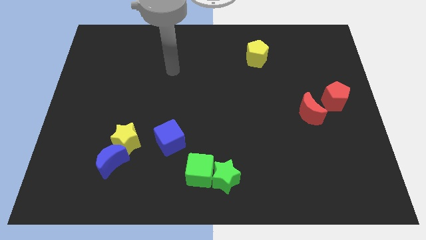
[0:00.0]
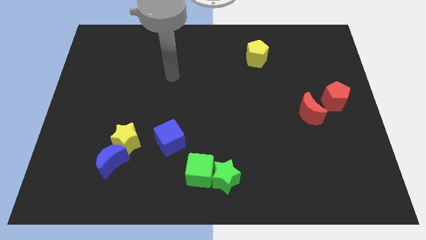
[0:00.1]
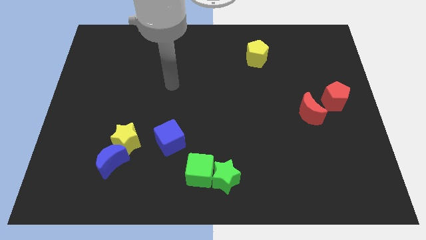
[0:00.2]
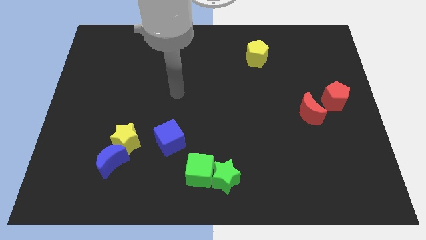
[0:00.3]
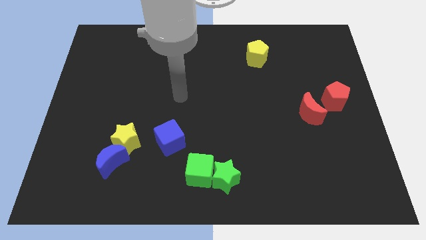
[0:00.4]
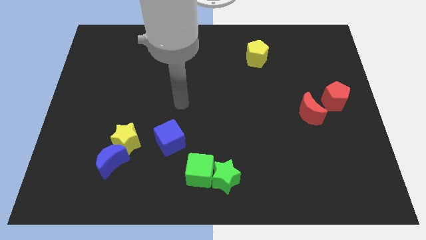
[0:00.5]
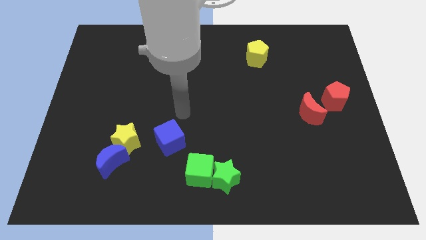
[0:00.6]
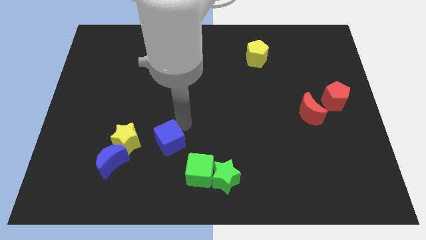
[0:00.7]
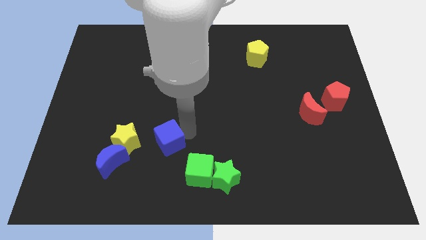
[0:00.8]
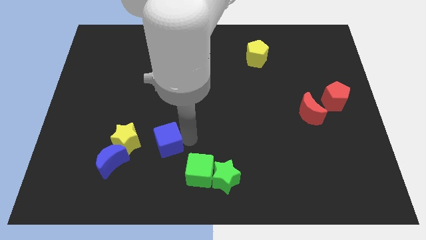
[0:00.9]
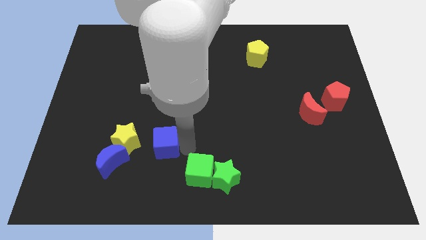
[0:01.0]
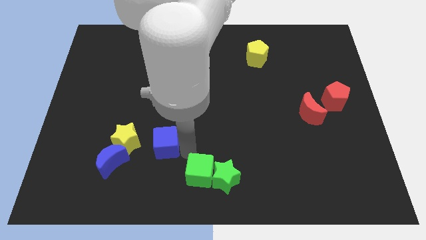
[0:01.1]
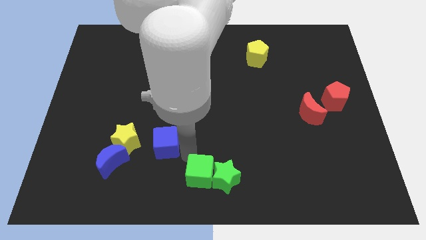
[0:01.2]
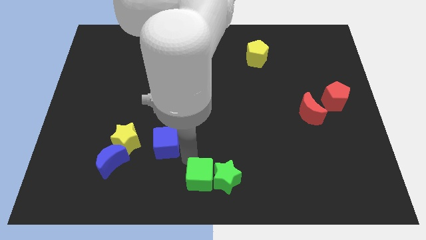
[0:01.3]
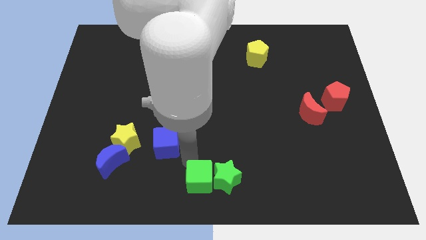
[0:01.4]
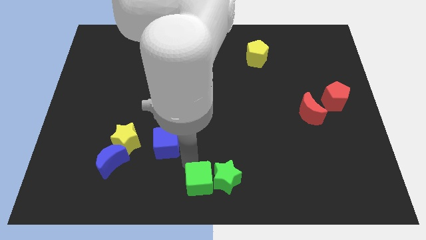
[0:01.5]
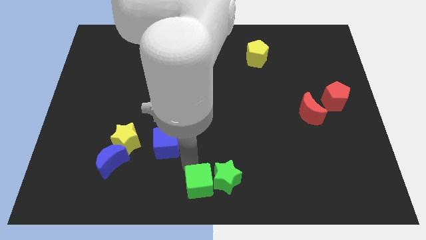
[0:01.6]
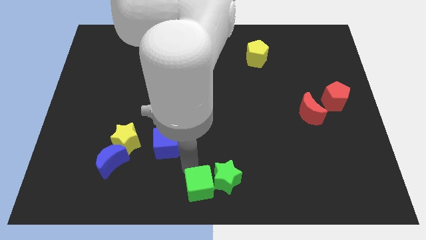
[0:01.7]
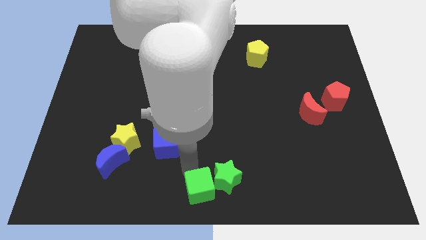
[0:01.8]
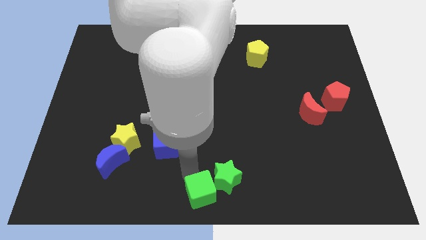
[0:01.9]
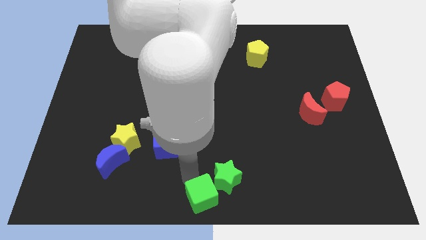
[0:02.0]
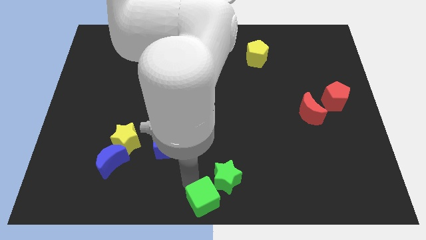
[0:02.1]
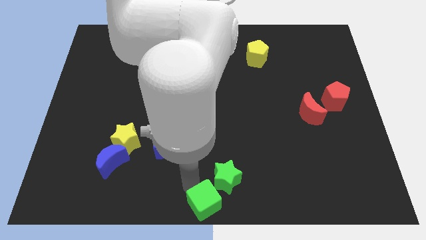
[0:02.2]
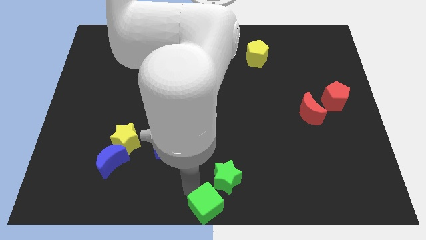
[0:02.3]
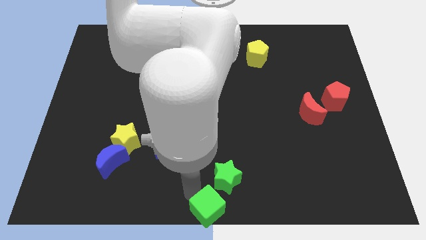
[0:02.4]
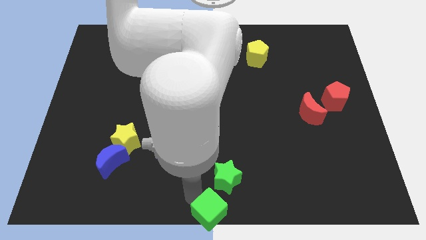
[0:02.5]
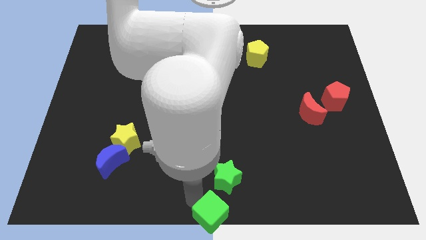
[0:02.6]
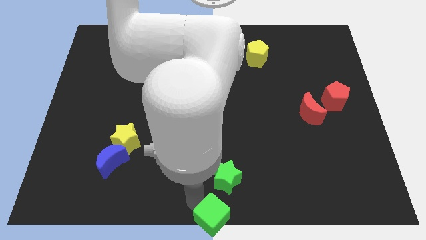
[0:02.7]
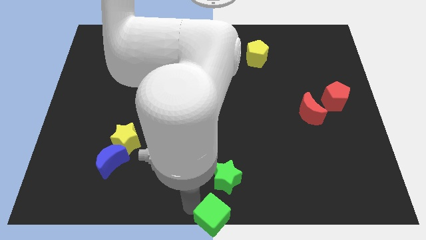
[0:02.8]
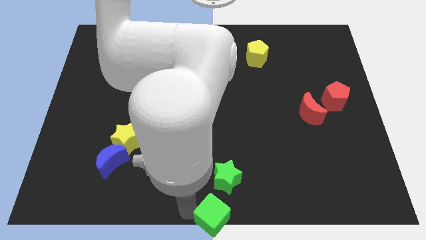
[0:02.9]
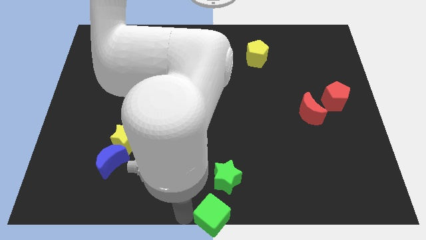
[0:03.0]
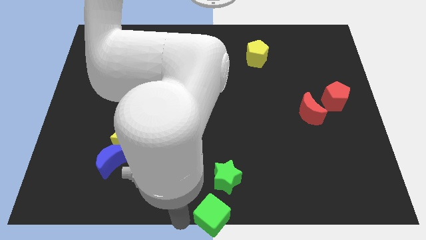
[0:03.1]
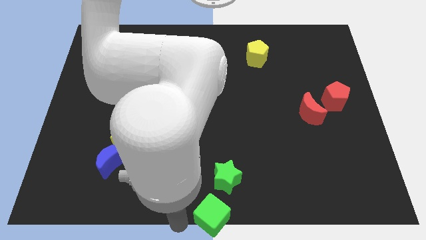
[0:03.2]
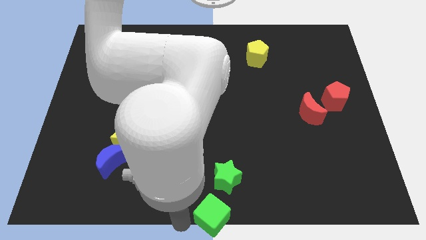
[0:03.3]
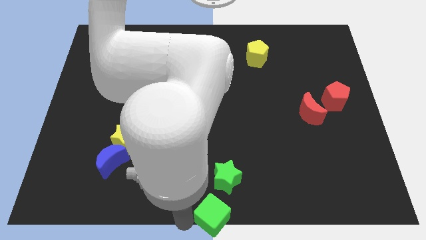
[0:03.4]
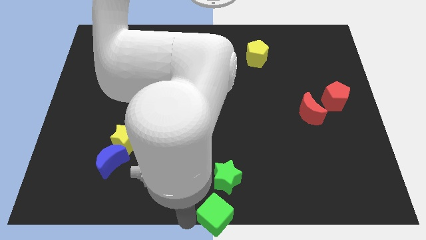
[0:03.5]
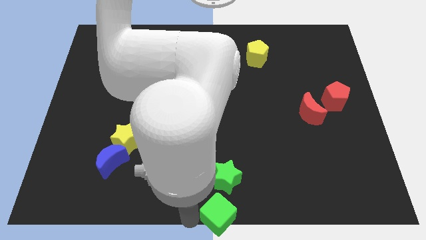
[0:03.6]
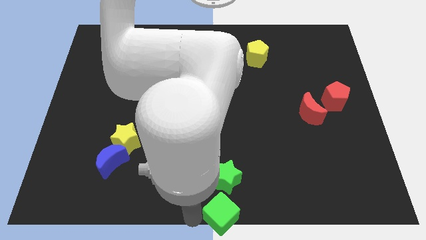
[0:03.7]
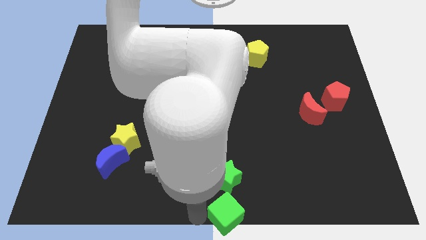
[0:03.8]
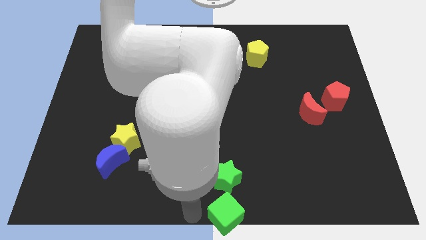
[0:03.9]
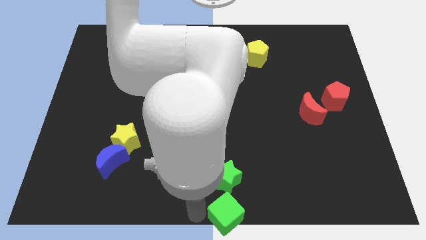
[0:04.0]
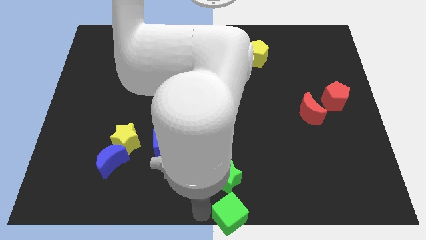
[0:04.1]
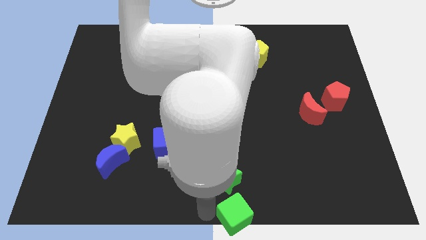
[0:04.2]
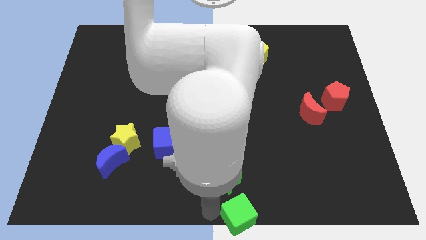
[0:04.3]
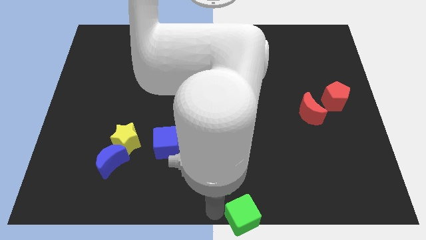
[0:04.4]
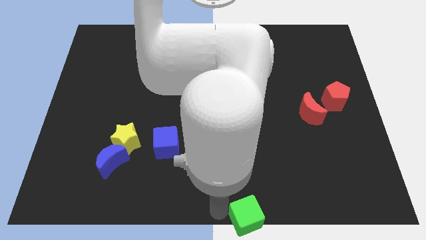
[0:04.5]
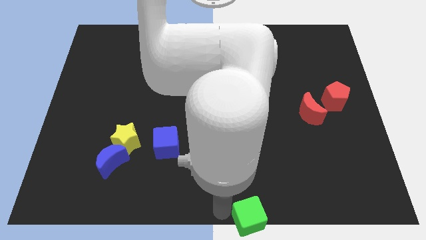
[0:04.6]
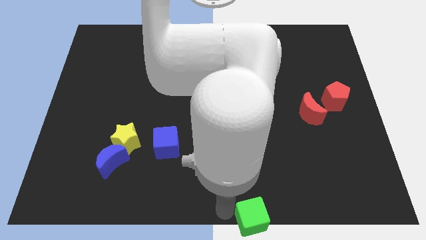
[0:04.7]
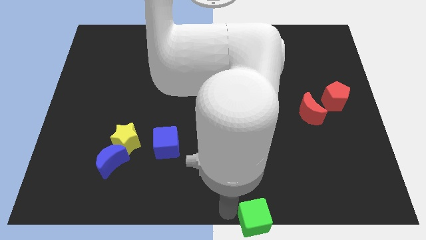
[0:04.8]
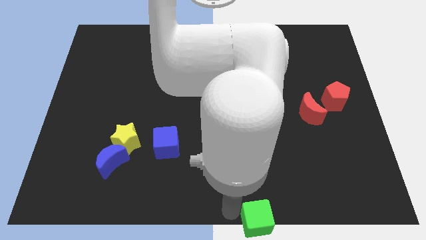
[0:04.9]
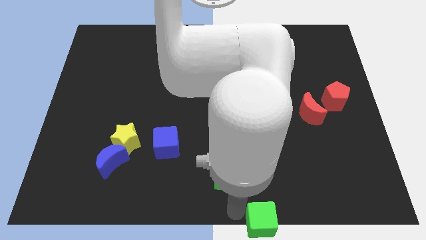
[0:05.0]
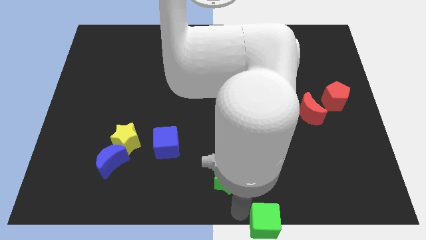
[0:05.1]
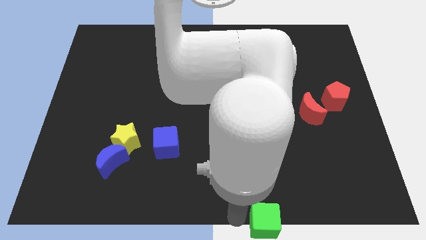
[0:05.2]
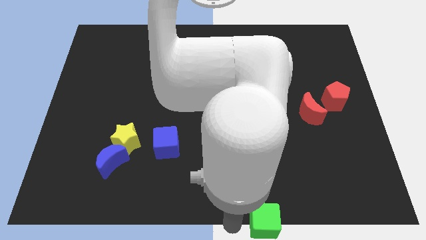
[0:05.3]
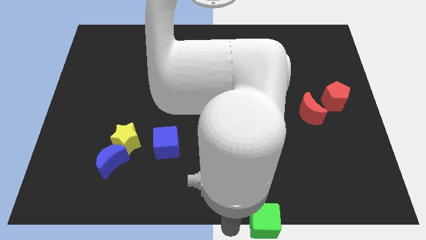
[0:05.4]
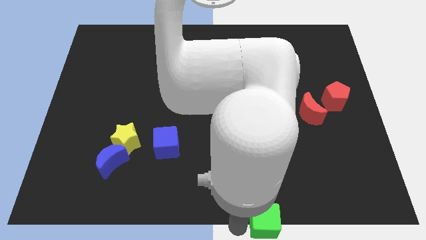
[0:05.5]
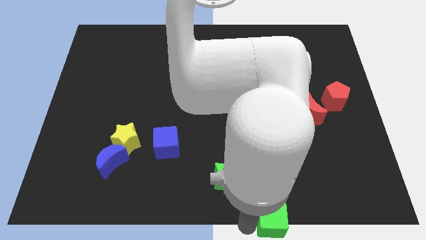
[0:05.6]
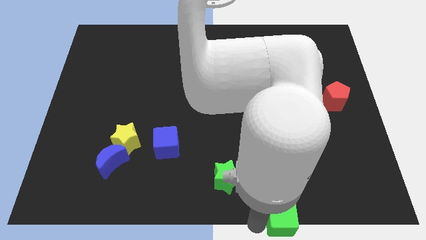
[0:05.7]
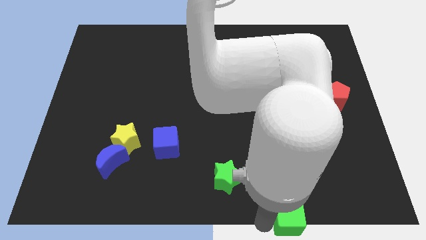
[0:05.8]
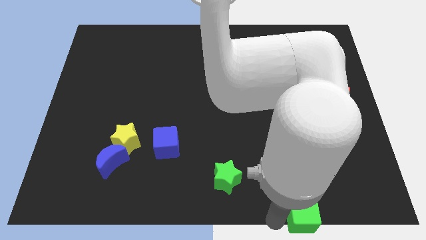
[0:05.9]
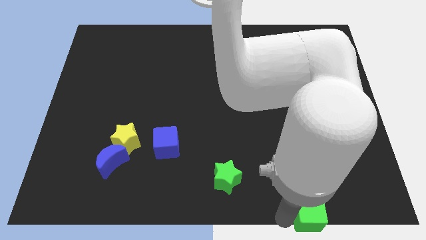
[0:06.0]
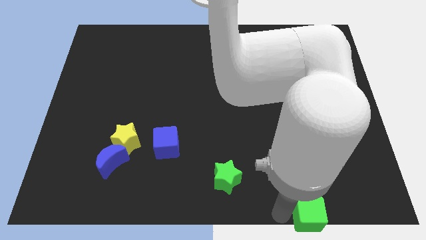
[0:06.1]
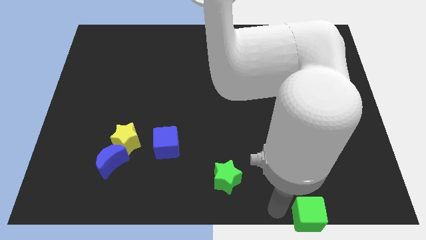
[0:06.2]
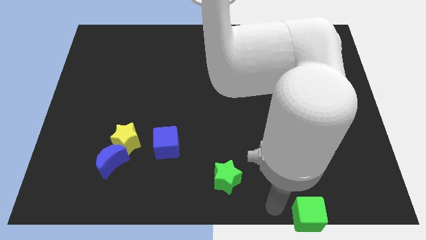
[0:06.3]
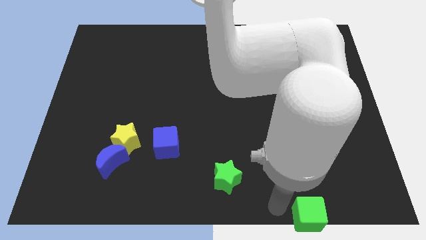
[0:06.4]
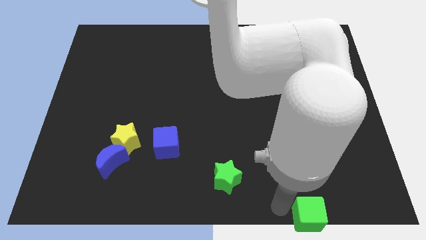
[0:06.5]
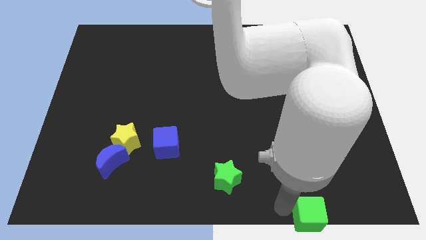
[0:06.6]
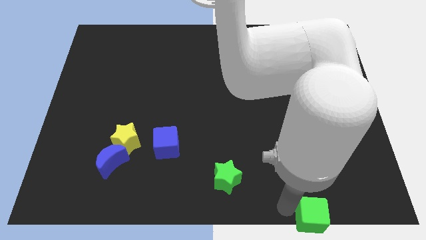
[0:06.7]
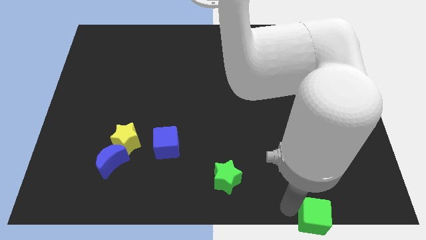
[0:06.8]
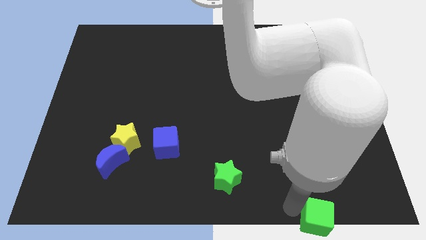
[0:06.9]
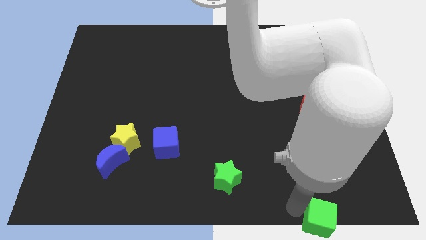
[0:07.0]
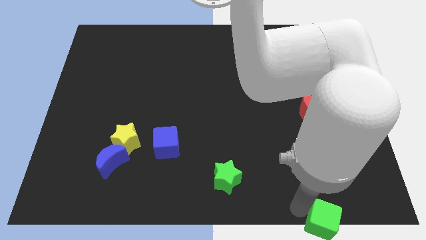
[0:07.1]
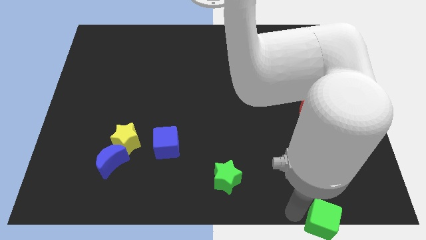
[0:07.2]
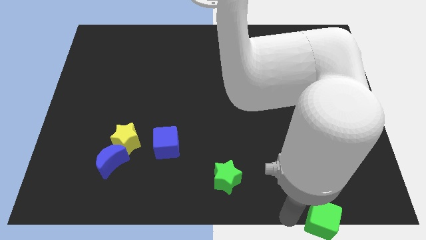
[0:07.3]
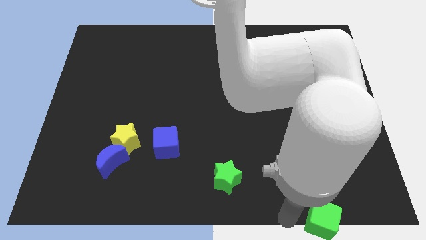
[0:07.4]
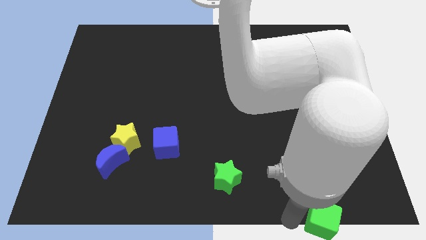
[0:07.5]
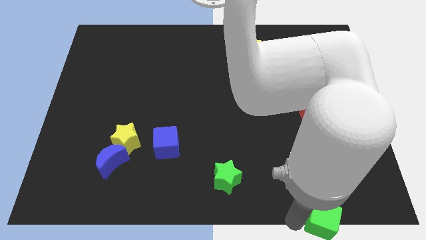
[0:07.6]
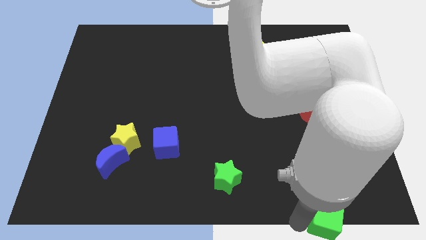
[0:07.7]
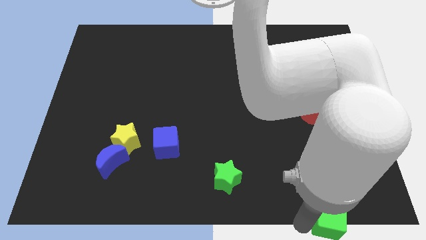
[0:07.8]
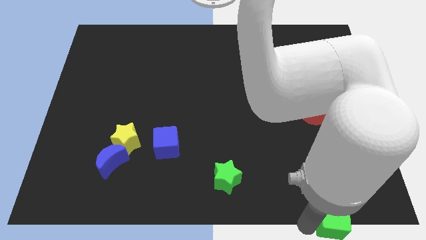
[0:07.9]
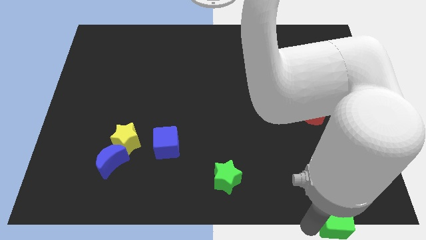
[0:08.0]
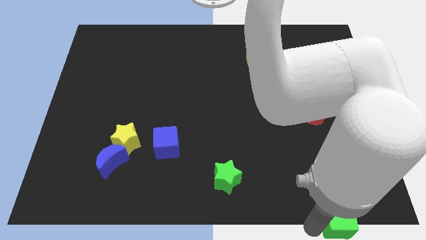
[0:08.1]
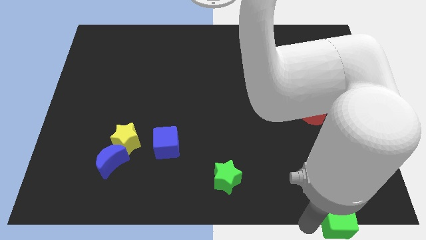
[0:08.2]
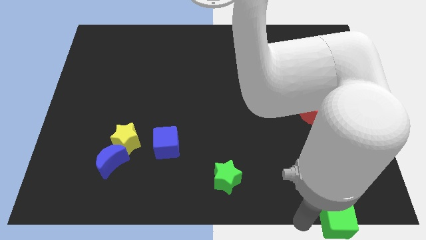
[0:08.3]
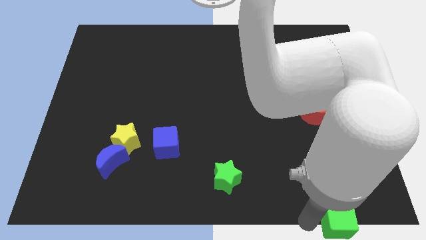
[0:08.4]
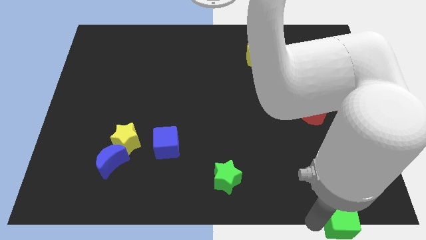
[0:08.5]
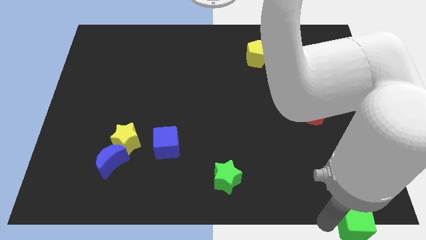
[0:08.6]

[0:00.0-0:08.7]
put the green cube to the bottom right corner
